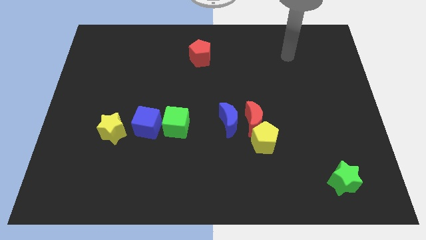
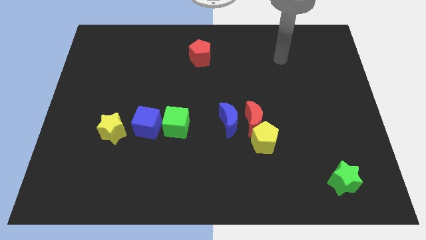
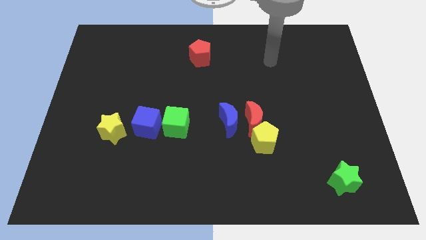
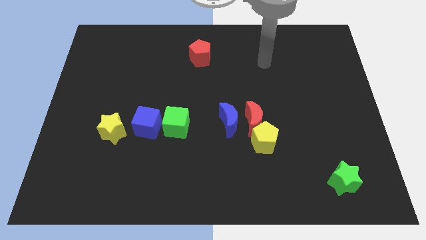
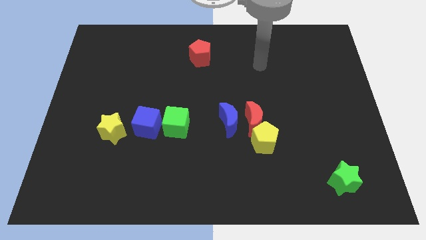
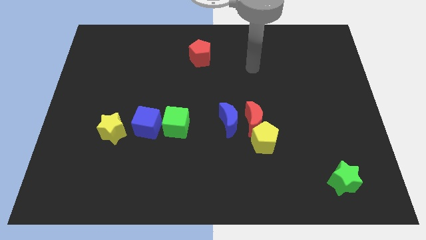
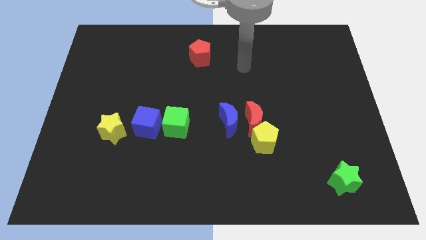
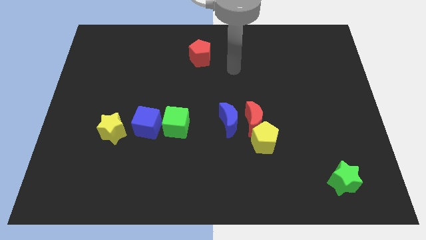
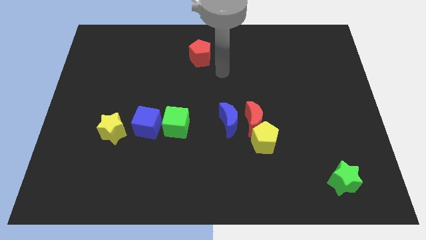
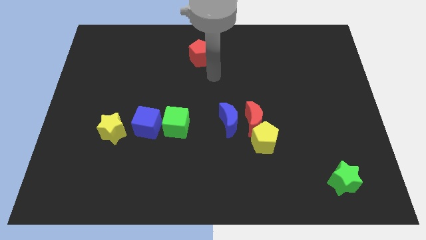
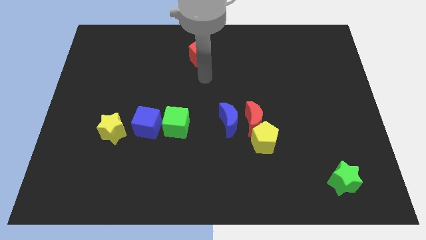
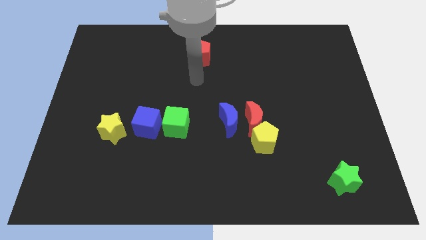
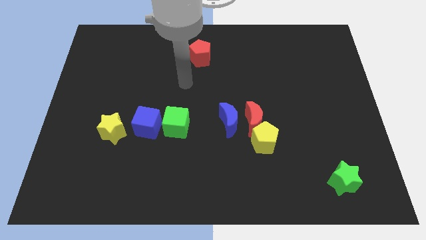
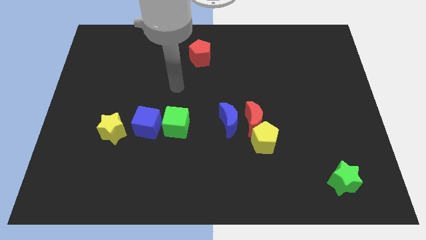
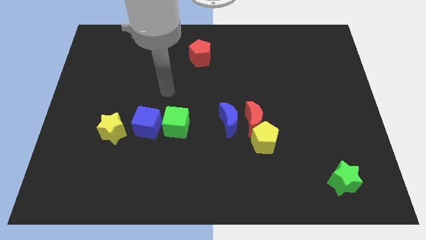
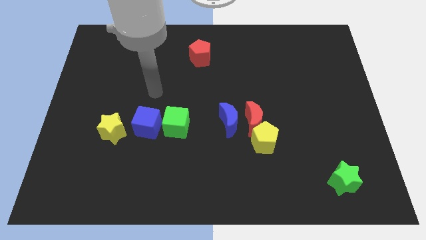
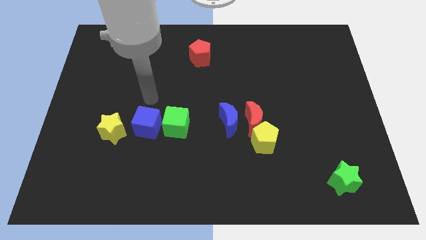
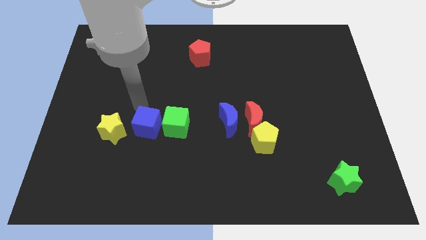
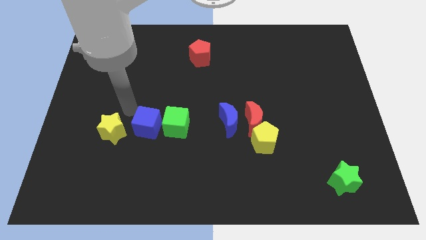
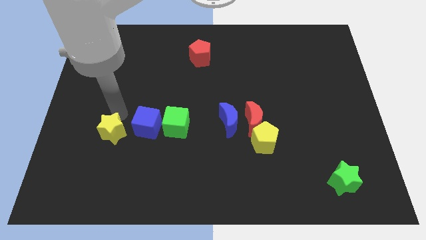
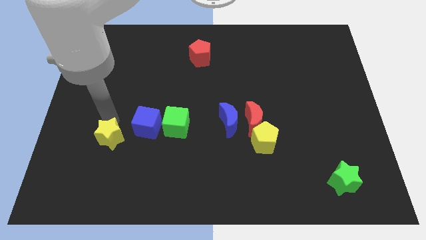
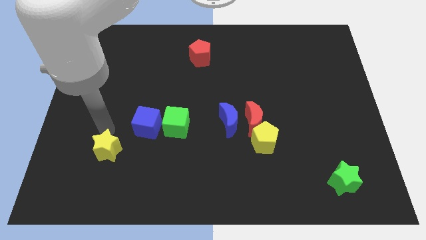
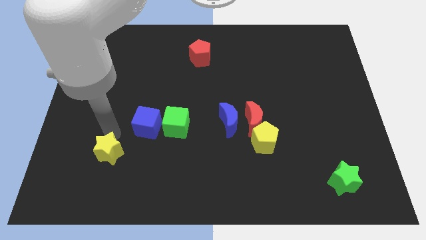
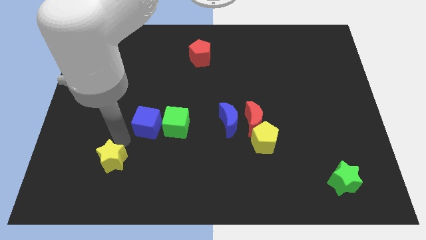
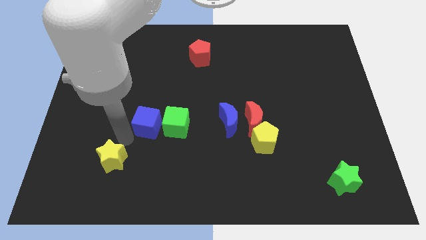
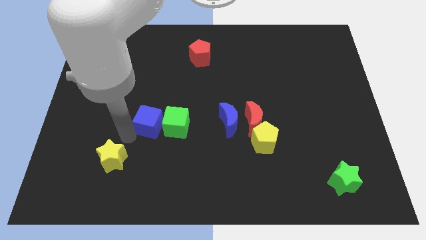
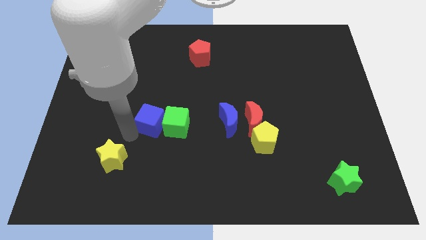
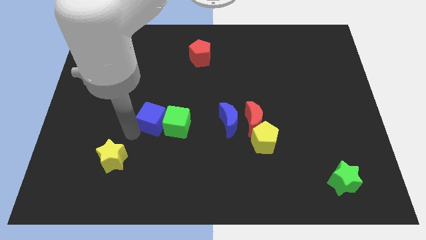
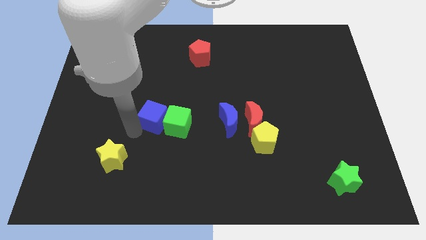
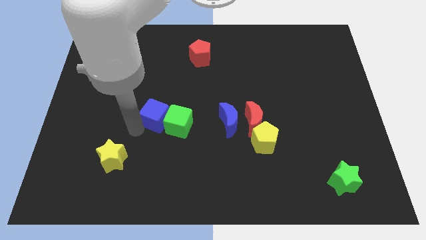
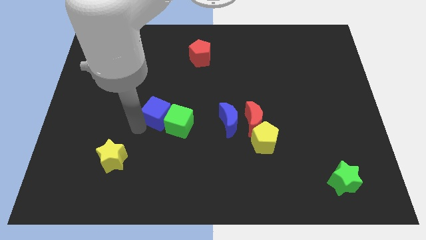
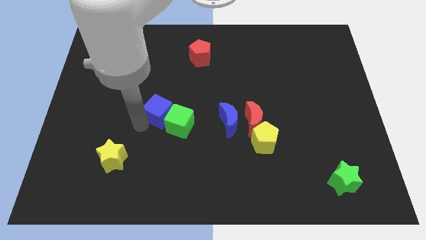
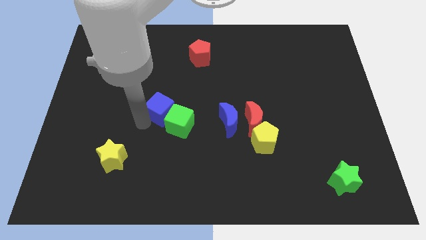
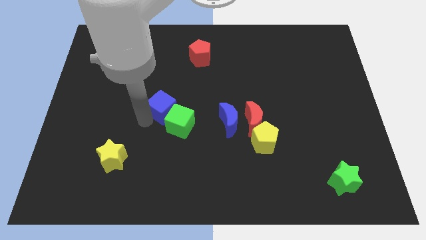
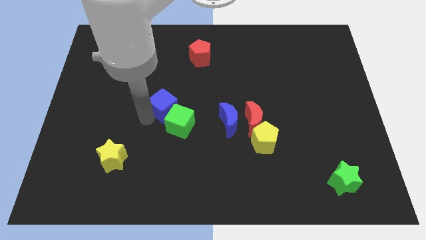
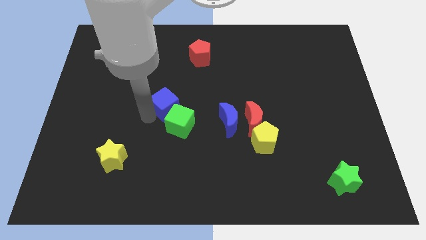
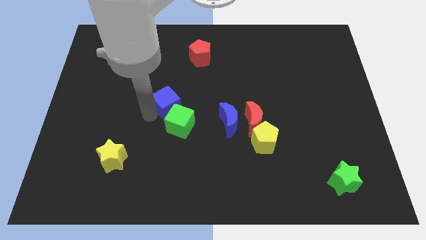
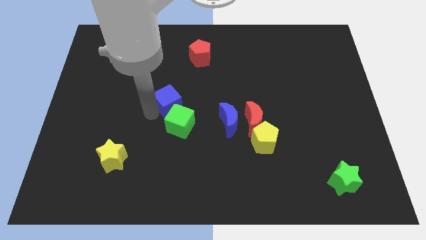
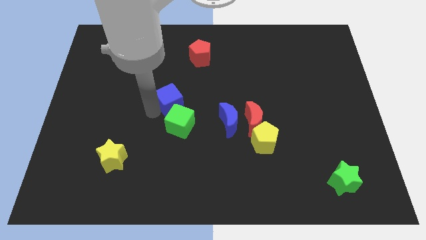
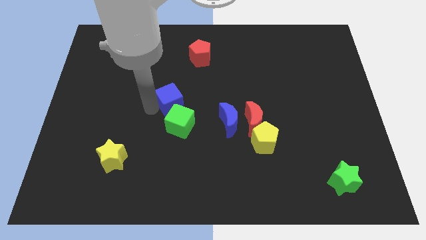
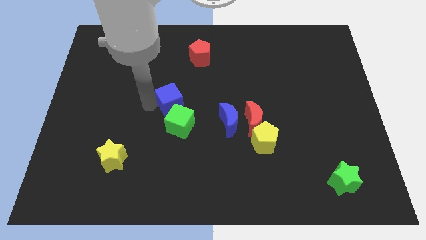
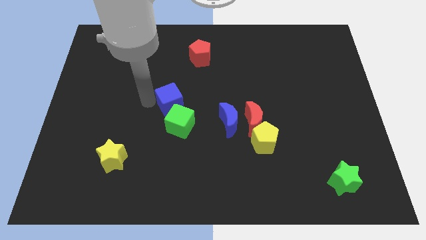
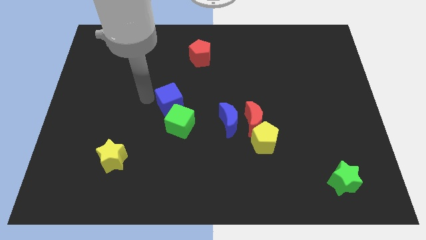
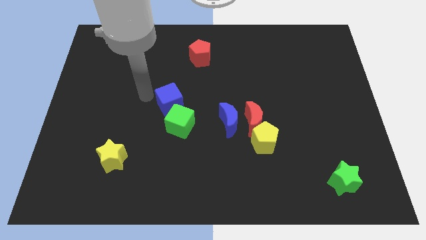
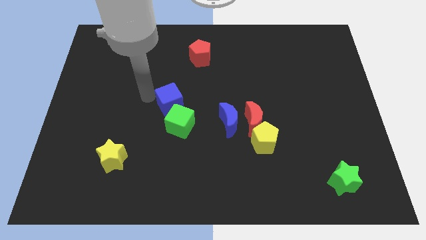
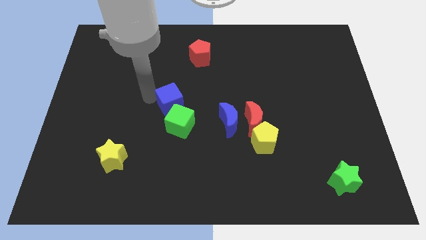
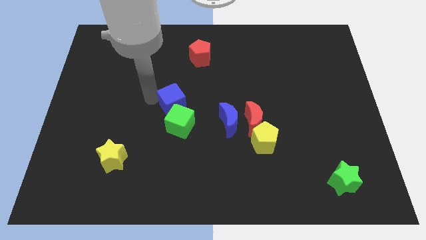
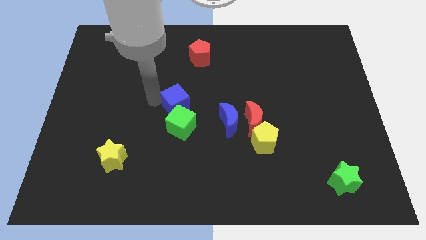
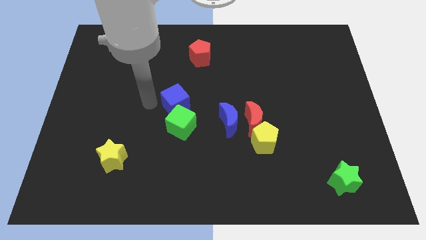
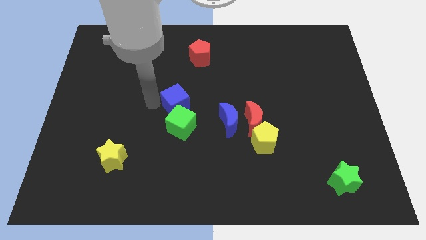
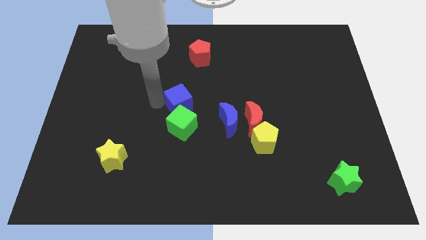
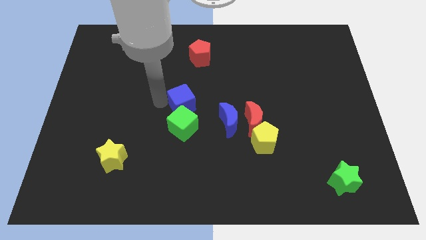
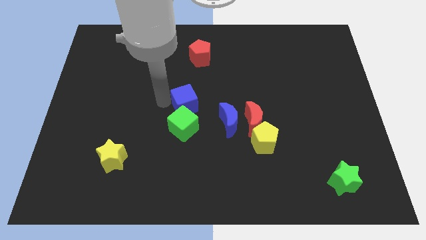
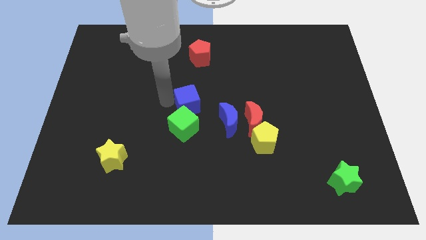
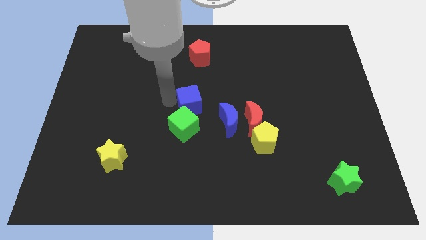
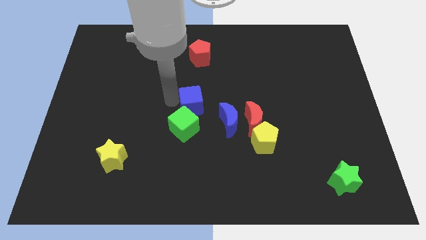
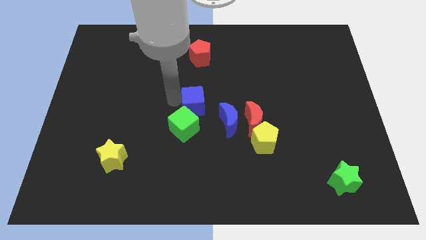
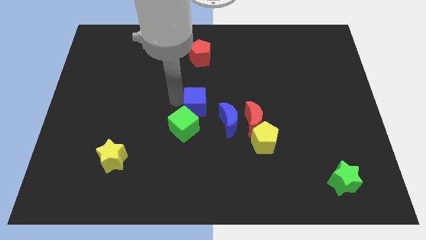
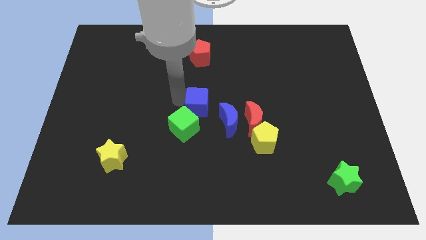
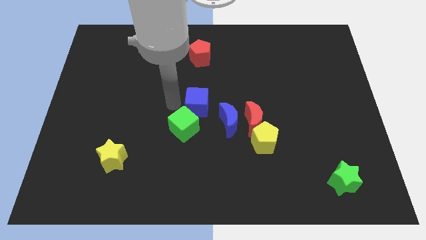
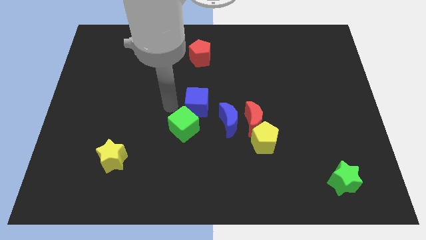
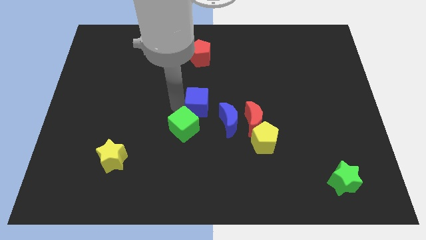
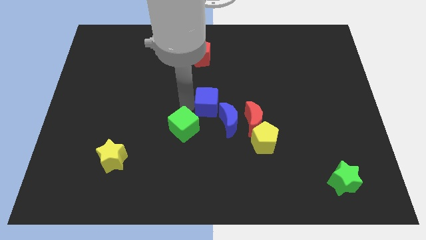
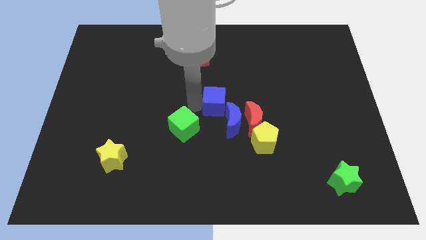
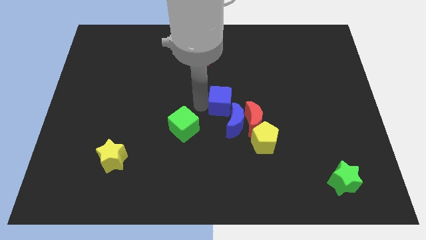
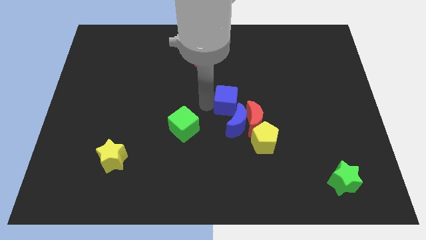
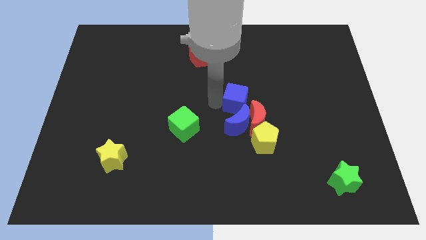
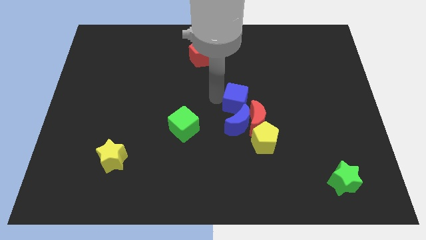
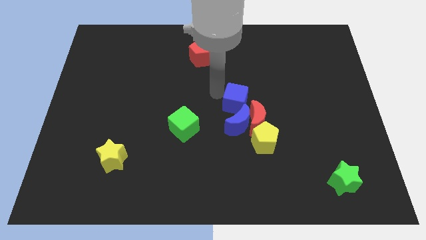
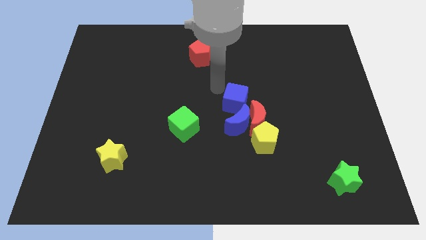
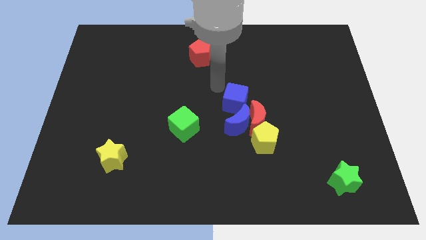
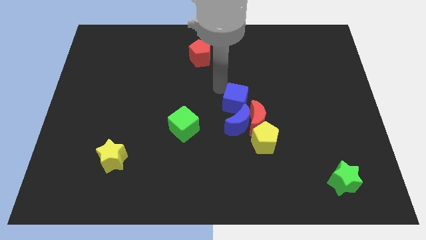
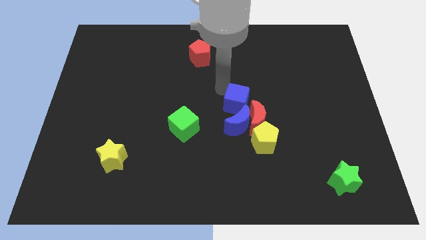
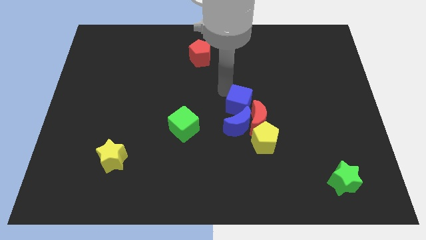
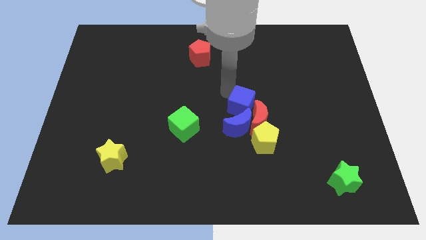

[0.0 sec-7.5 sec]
slide the blue cube to the red moon
